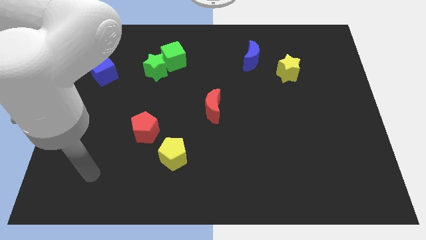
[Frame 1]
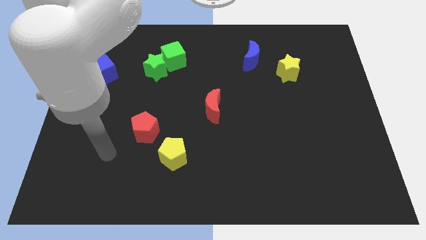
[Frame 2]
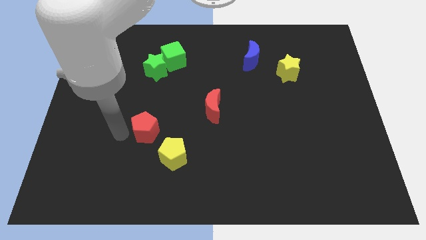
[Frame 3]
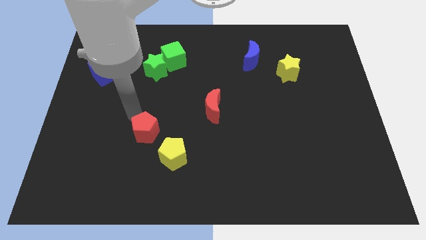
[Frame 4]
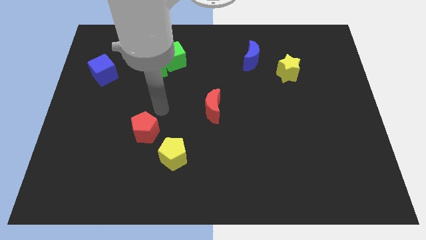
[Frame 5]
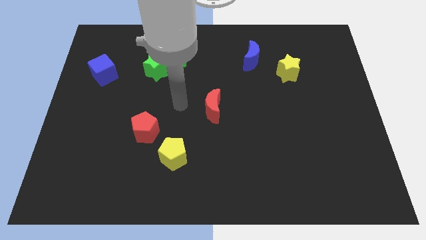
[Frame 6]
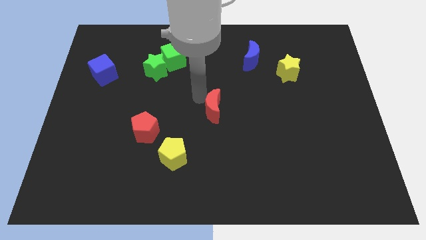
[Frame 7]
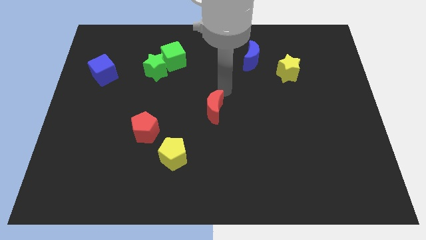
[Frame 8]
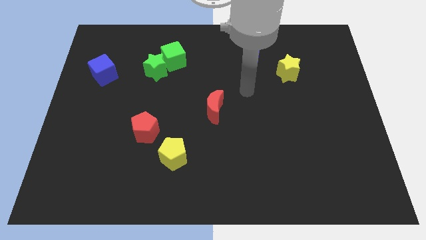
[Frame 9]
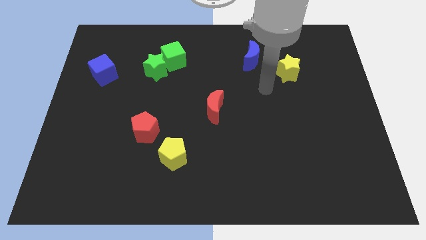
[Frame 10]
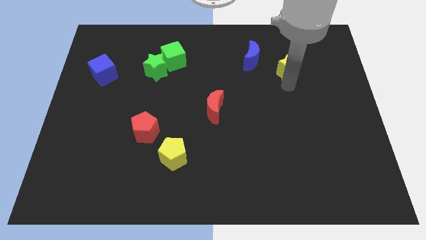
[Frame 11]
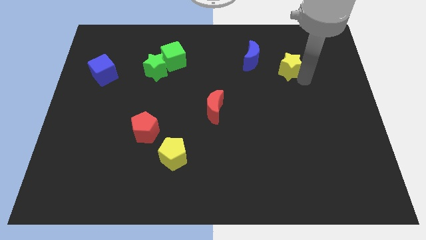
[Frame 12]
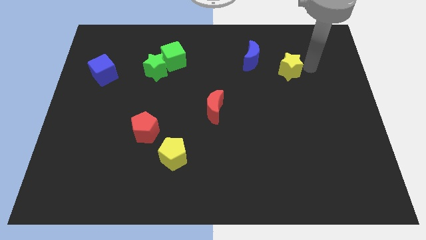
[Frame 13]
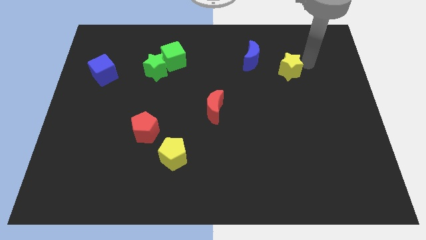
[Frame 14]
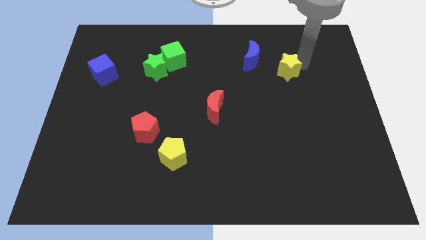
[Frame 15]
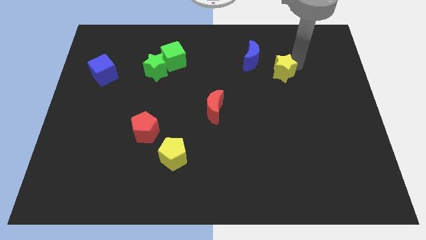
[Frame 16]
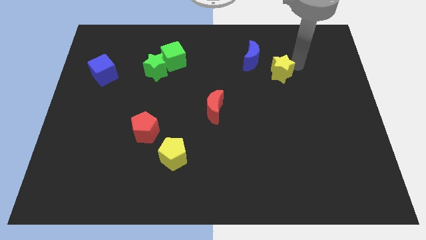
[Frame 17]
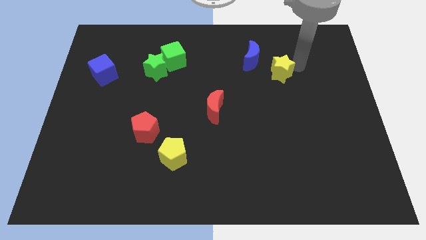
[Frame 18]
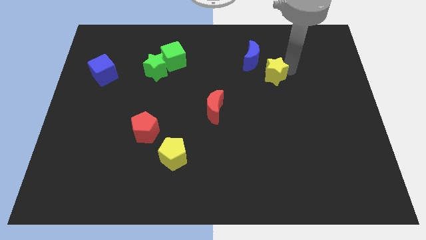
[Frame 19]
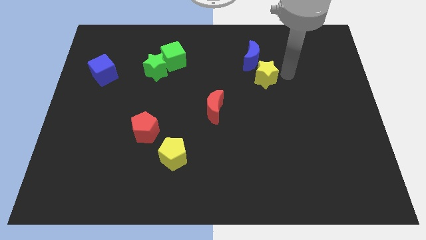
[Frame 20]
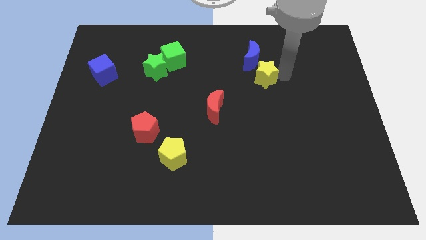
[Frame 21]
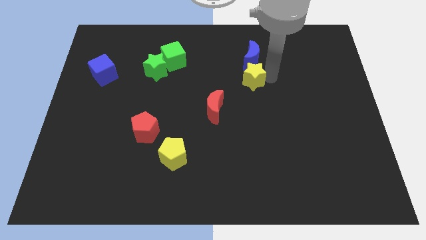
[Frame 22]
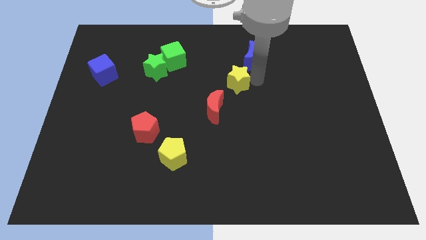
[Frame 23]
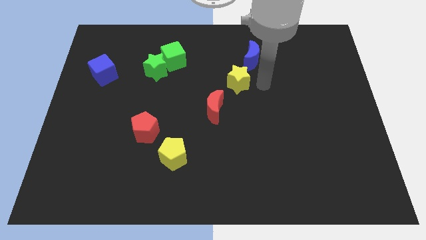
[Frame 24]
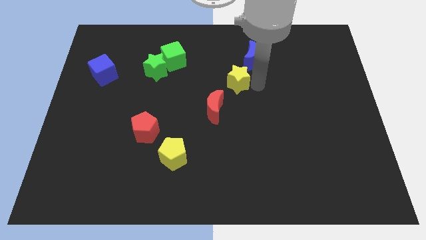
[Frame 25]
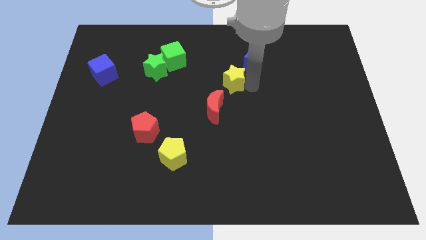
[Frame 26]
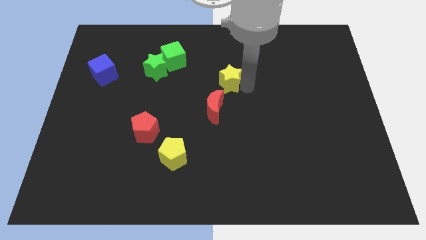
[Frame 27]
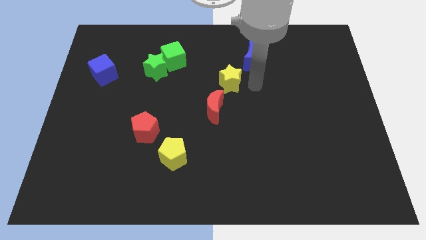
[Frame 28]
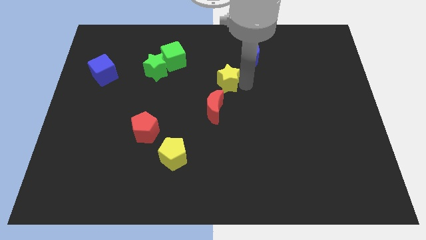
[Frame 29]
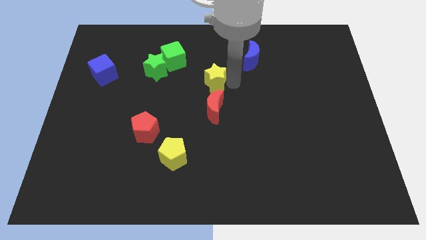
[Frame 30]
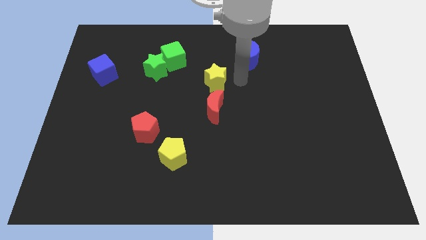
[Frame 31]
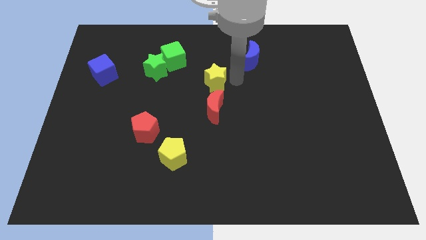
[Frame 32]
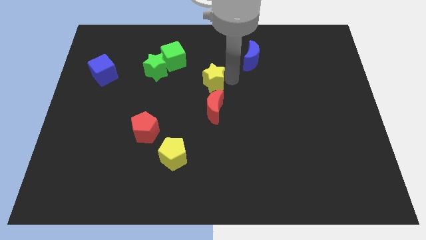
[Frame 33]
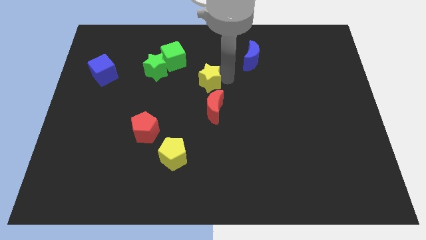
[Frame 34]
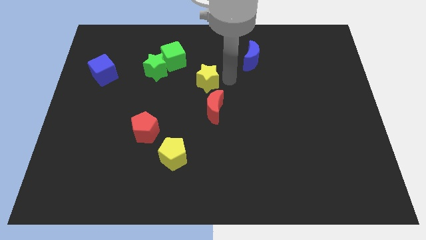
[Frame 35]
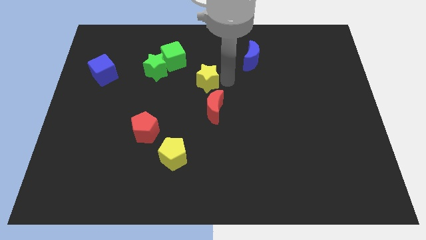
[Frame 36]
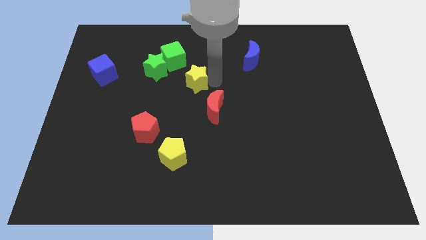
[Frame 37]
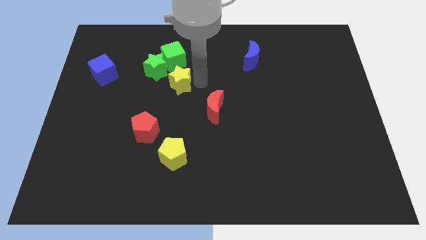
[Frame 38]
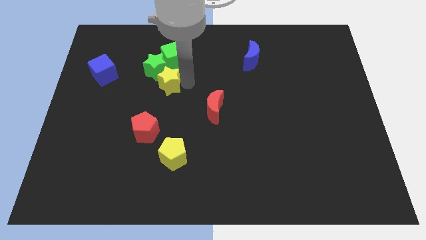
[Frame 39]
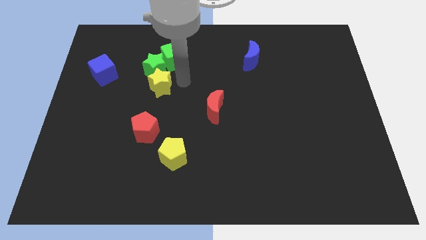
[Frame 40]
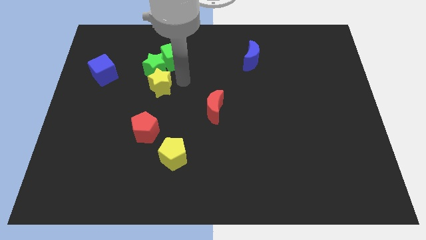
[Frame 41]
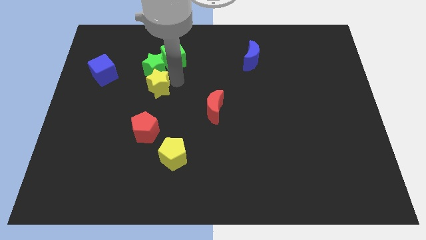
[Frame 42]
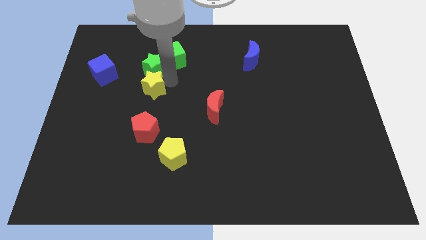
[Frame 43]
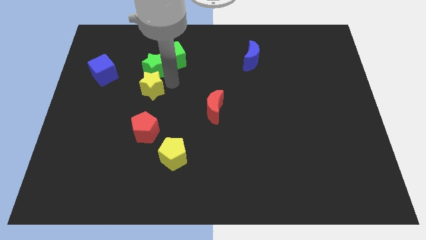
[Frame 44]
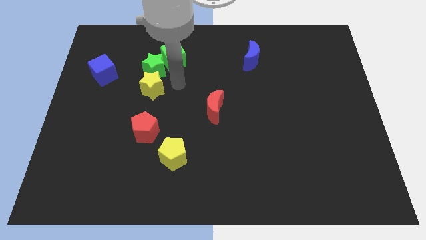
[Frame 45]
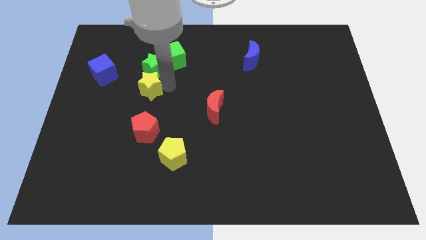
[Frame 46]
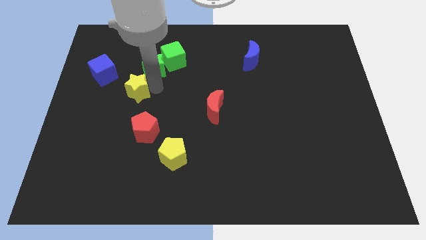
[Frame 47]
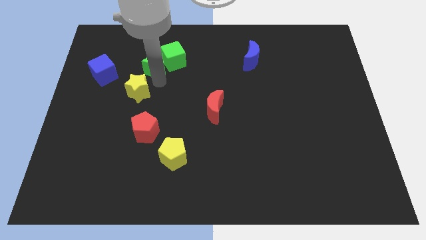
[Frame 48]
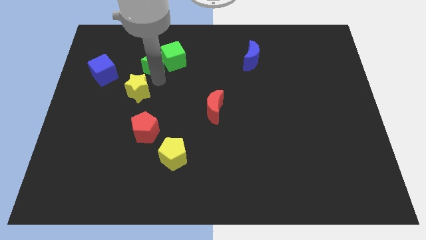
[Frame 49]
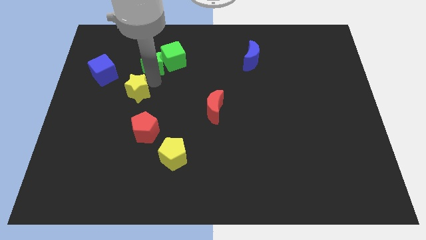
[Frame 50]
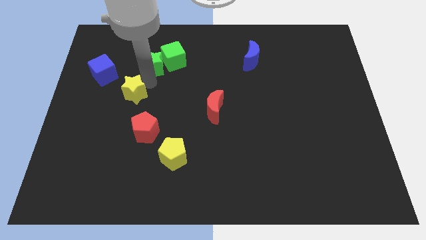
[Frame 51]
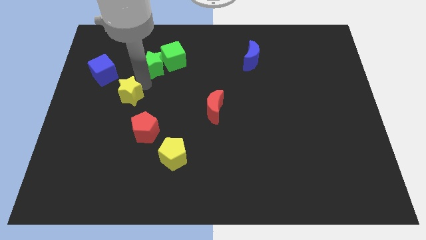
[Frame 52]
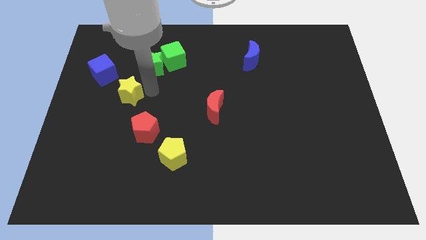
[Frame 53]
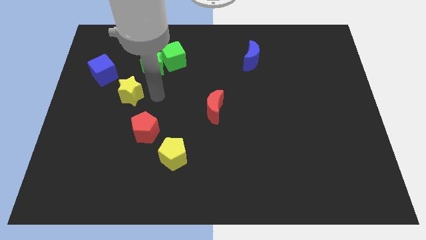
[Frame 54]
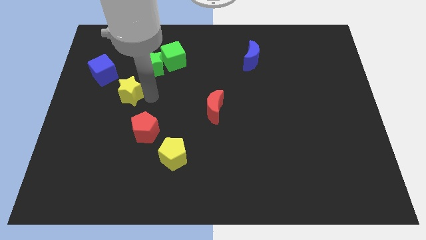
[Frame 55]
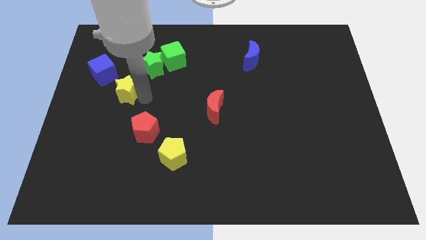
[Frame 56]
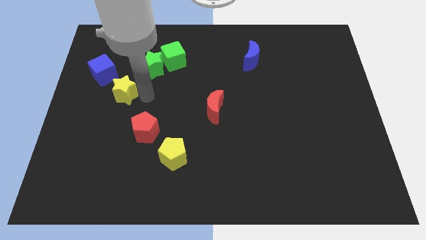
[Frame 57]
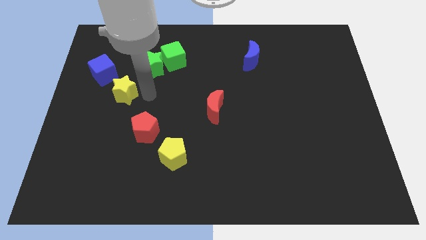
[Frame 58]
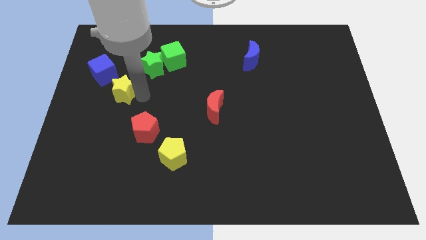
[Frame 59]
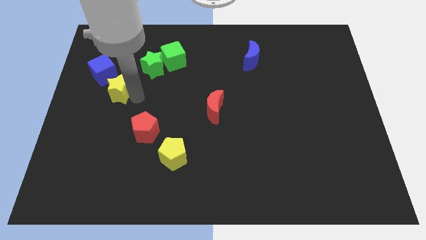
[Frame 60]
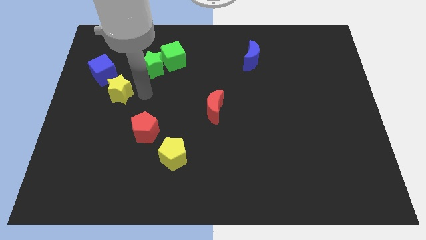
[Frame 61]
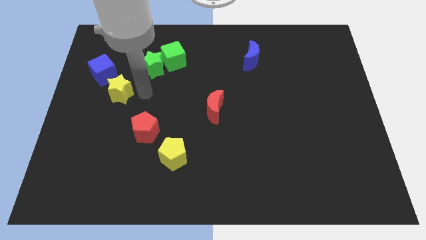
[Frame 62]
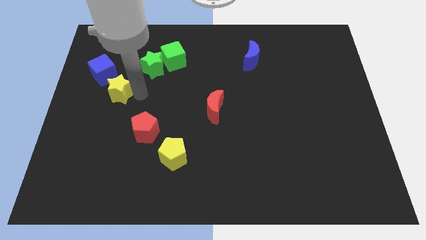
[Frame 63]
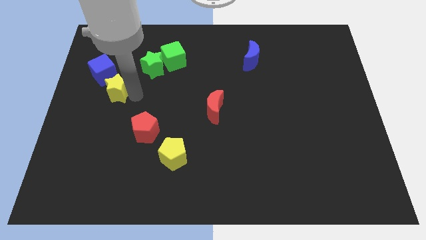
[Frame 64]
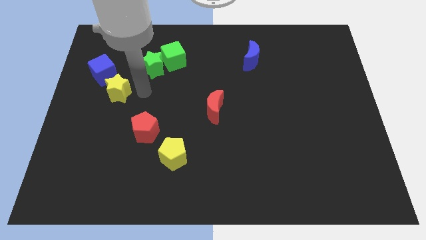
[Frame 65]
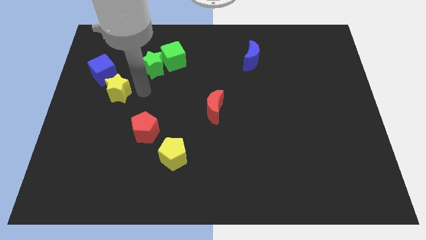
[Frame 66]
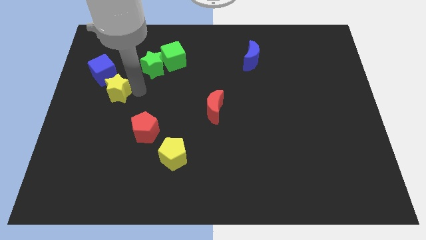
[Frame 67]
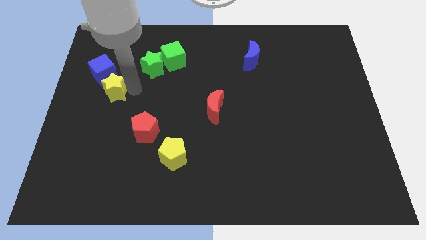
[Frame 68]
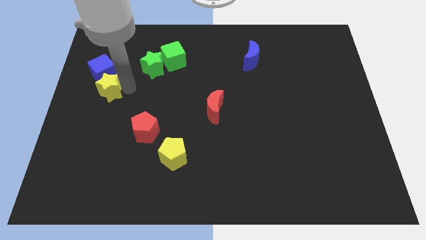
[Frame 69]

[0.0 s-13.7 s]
push the yellow star to the left side of the board

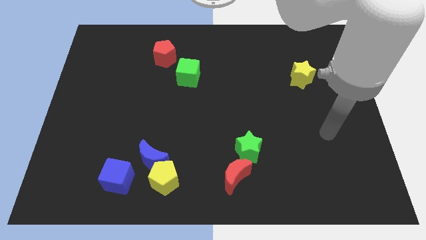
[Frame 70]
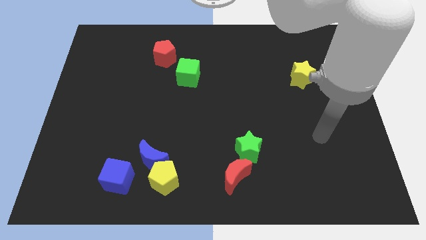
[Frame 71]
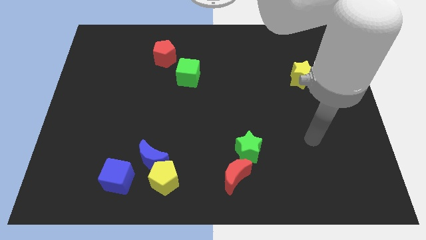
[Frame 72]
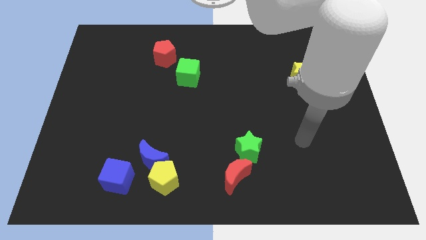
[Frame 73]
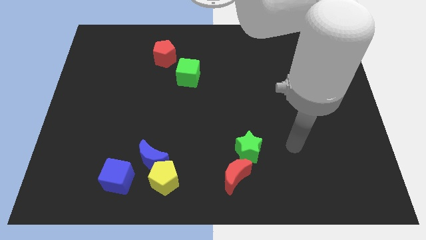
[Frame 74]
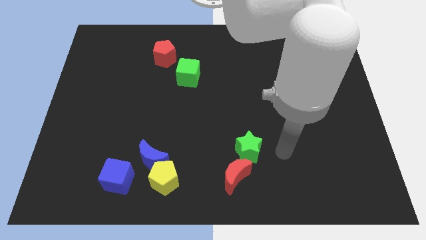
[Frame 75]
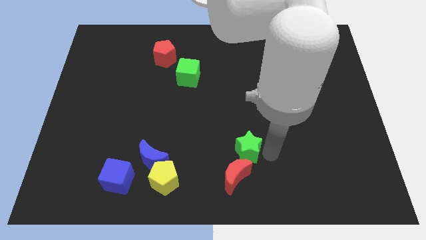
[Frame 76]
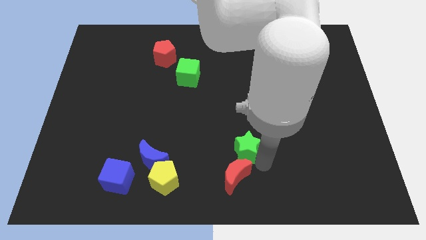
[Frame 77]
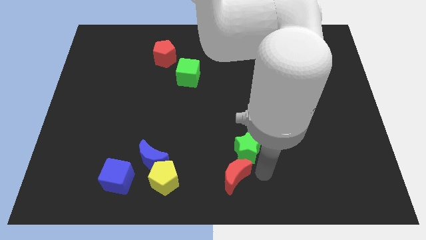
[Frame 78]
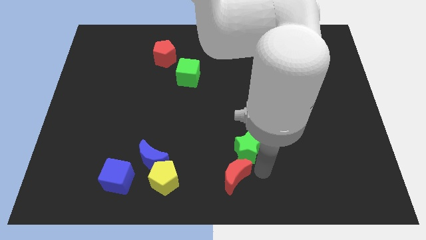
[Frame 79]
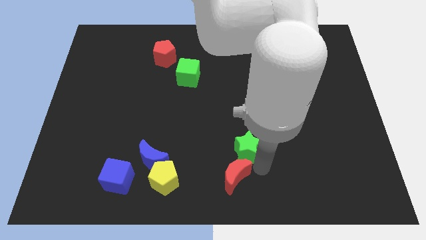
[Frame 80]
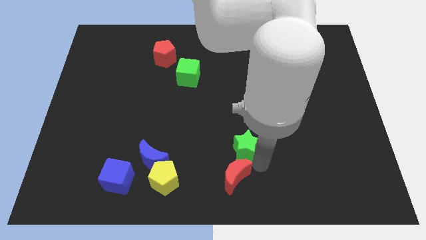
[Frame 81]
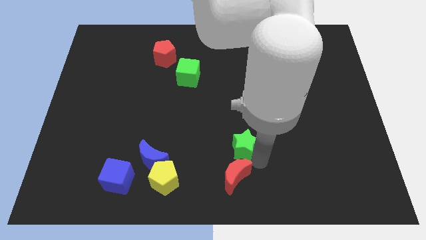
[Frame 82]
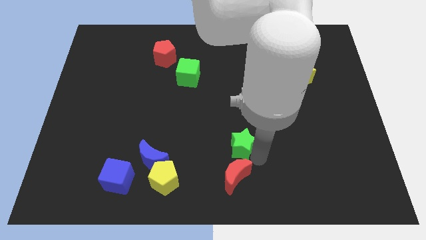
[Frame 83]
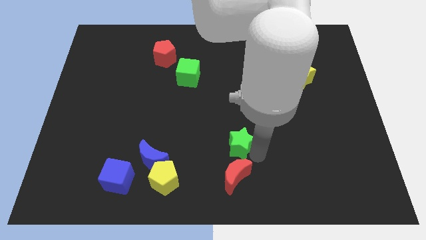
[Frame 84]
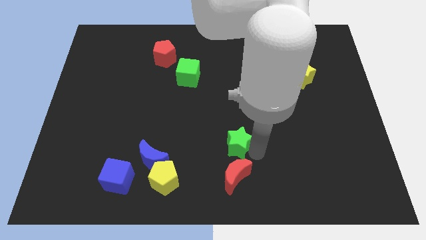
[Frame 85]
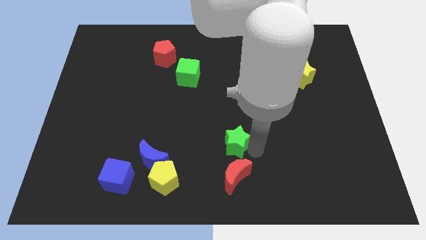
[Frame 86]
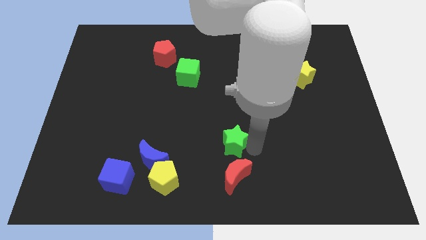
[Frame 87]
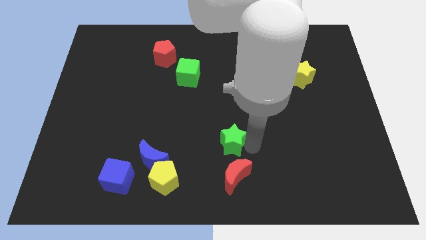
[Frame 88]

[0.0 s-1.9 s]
push the green star to the center
